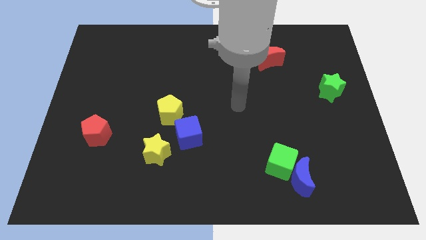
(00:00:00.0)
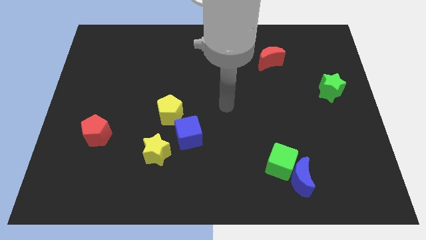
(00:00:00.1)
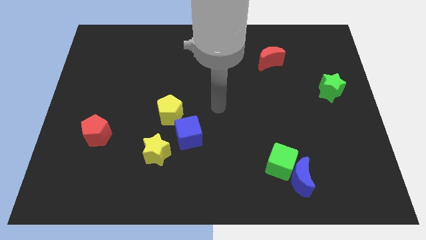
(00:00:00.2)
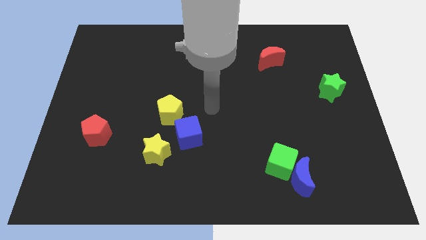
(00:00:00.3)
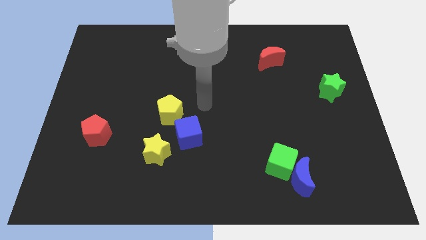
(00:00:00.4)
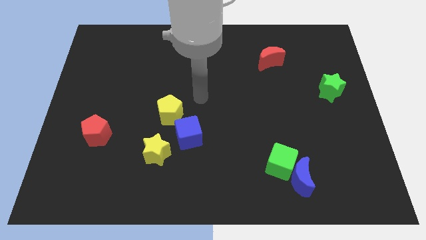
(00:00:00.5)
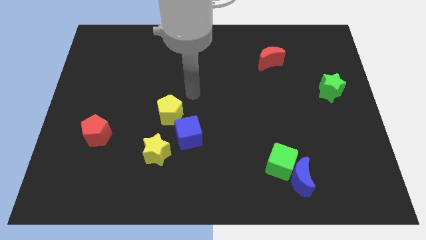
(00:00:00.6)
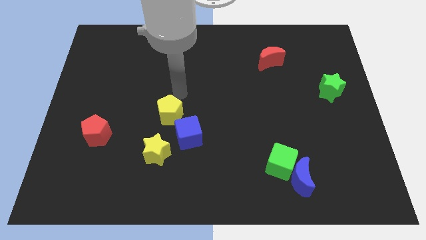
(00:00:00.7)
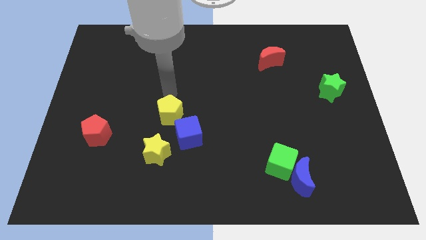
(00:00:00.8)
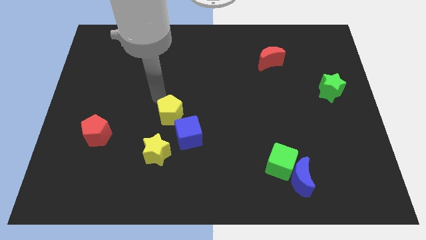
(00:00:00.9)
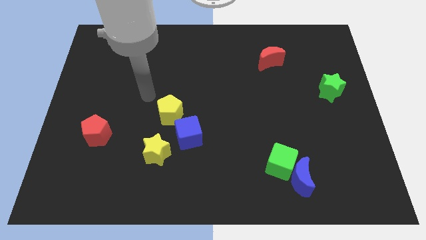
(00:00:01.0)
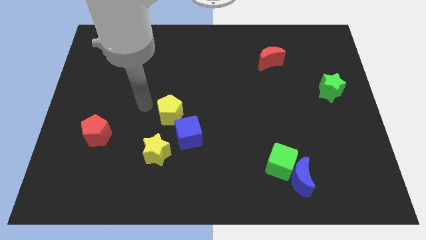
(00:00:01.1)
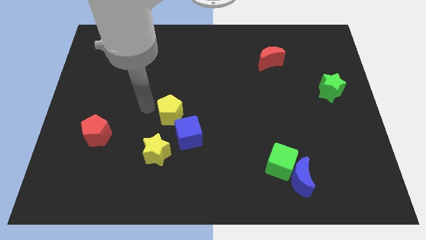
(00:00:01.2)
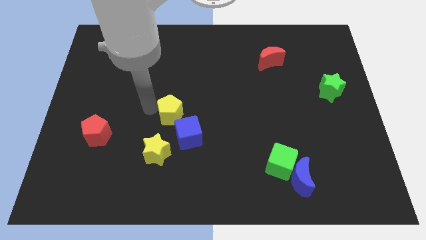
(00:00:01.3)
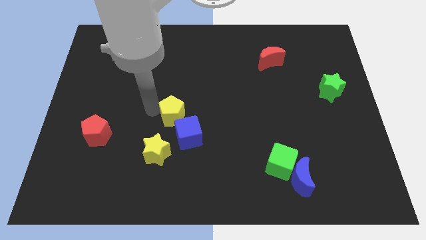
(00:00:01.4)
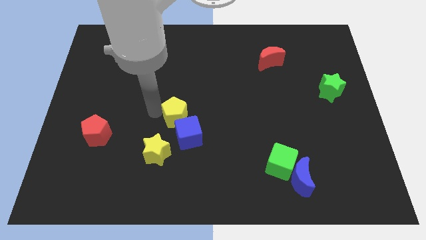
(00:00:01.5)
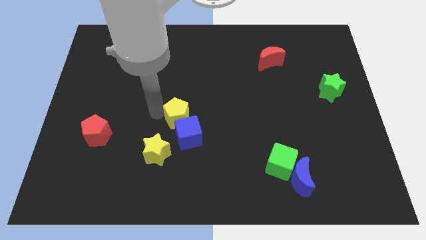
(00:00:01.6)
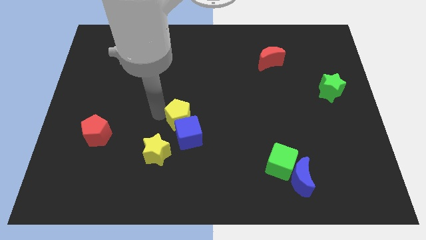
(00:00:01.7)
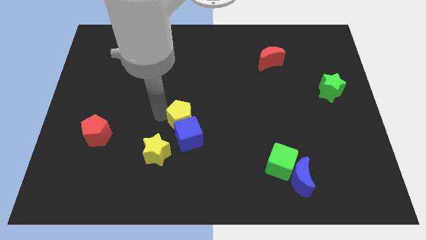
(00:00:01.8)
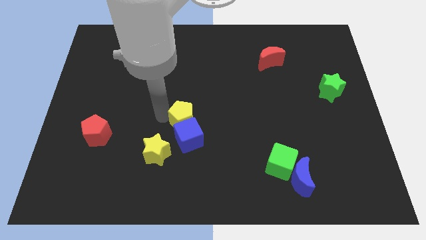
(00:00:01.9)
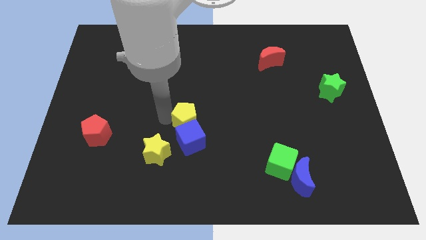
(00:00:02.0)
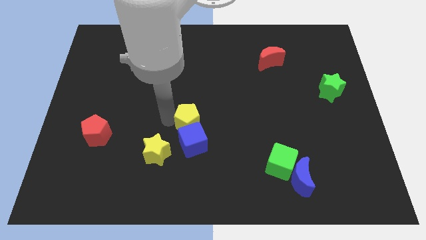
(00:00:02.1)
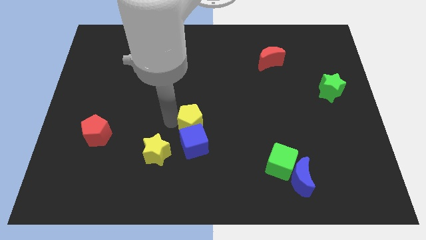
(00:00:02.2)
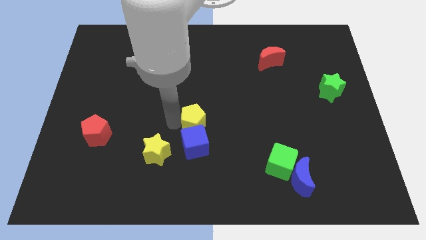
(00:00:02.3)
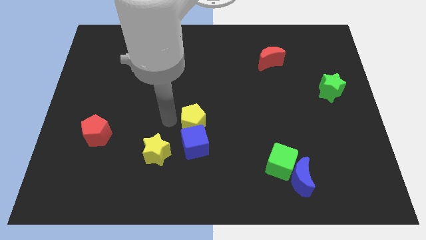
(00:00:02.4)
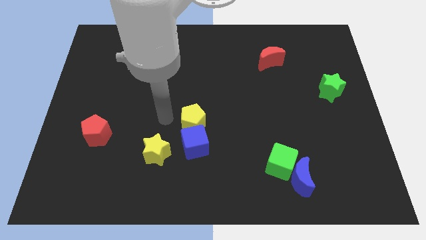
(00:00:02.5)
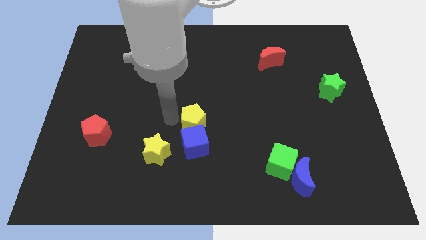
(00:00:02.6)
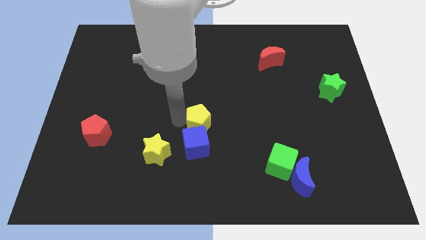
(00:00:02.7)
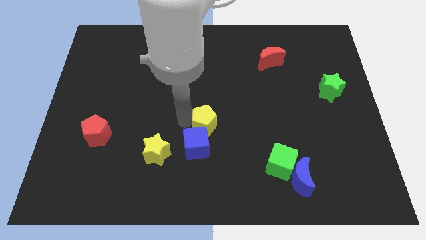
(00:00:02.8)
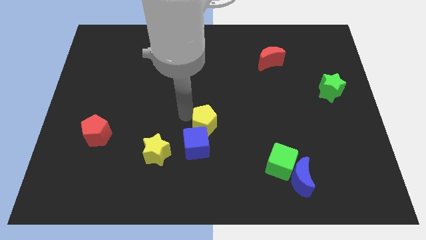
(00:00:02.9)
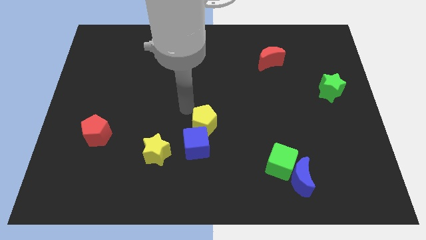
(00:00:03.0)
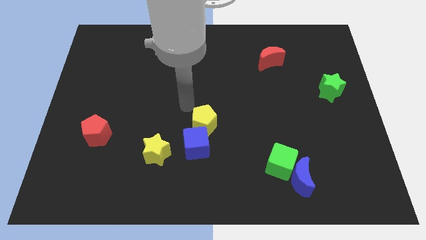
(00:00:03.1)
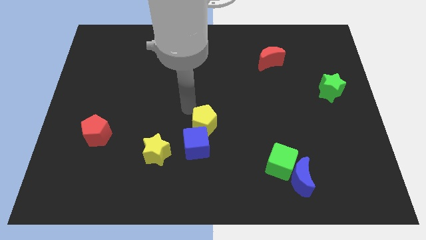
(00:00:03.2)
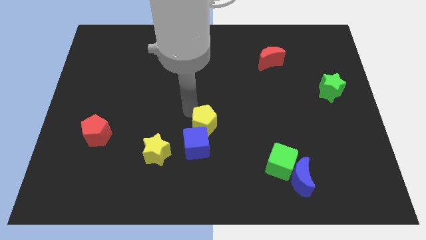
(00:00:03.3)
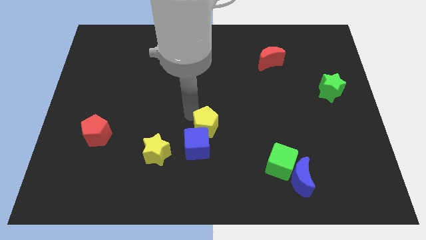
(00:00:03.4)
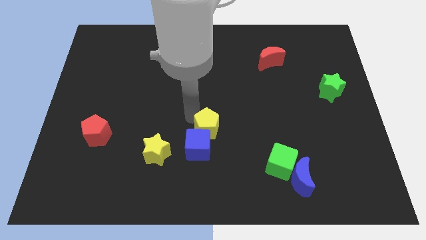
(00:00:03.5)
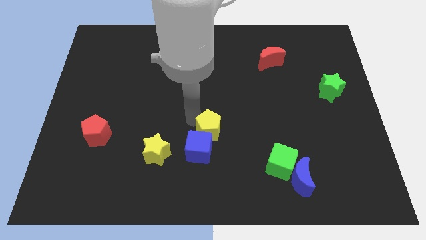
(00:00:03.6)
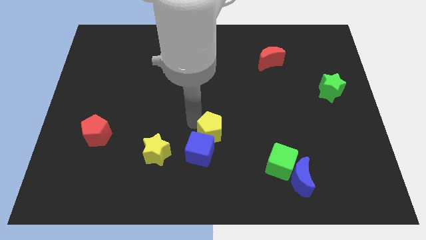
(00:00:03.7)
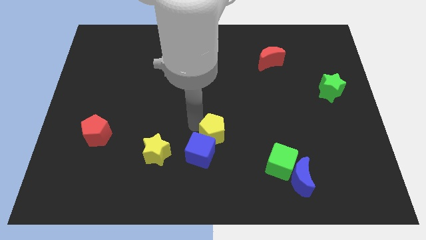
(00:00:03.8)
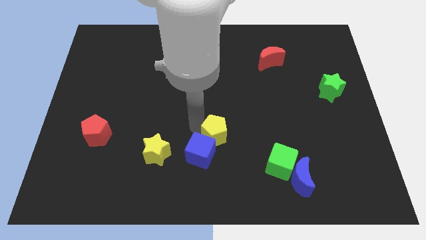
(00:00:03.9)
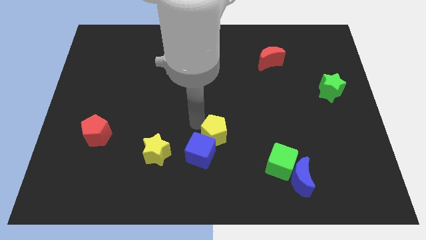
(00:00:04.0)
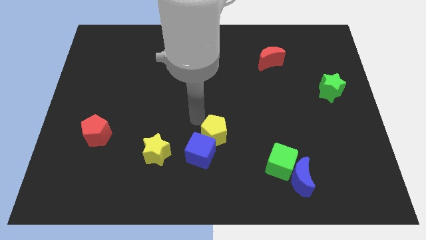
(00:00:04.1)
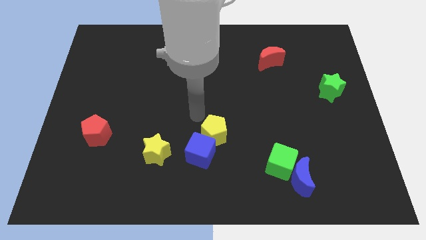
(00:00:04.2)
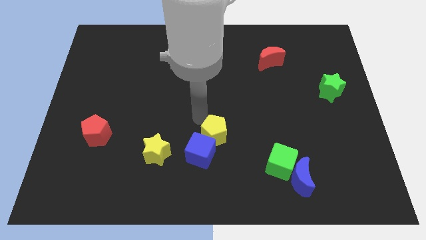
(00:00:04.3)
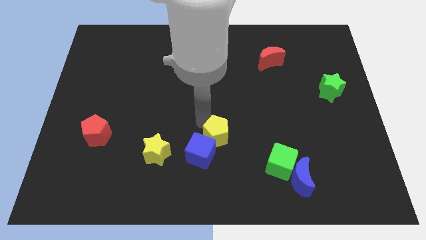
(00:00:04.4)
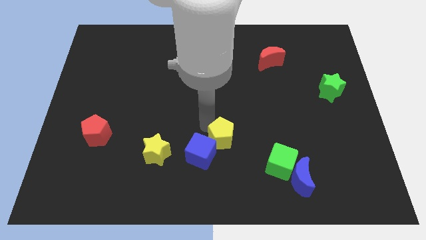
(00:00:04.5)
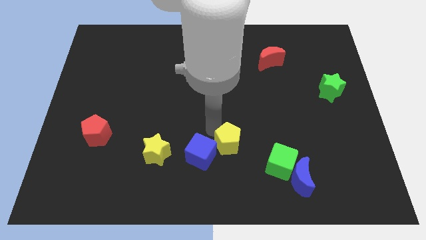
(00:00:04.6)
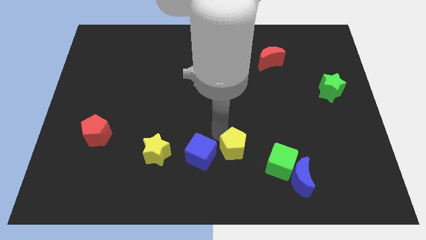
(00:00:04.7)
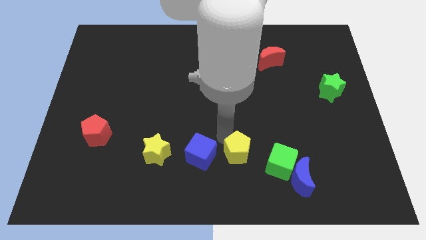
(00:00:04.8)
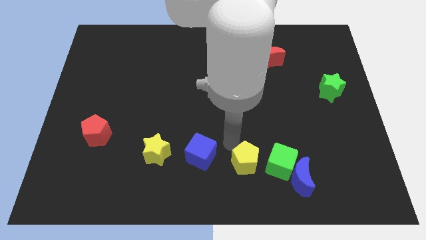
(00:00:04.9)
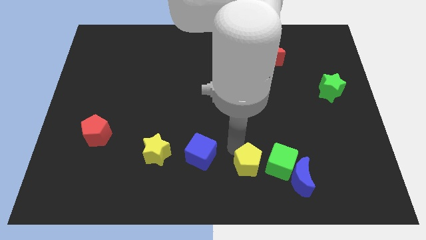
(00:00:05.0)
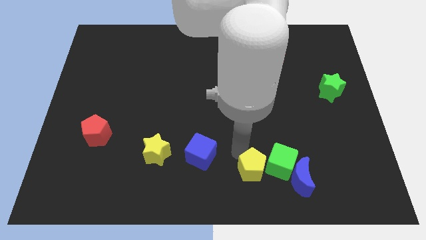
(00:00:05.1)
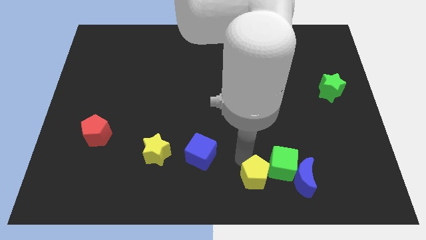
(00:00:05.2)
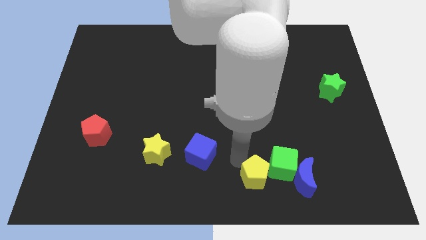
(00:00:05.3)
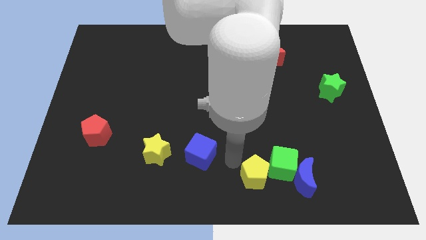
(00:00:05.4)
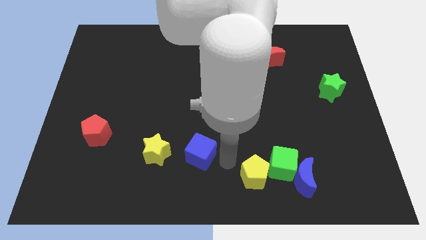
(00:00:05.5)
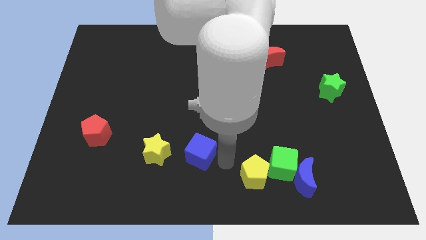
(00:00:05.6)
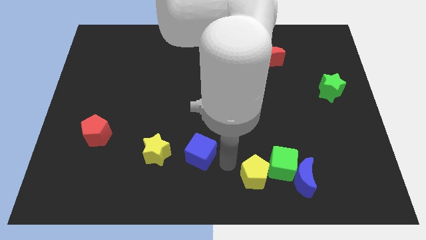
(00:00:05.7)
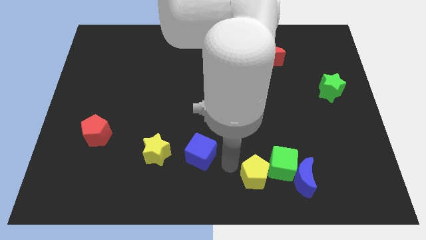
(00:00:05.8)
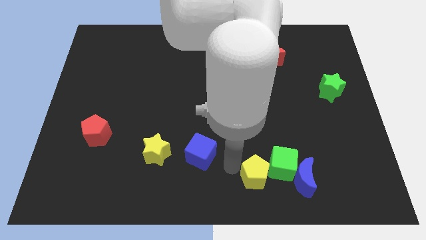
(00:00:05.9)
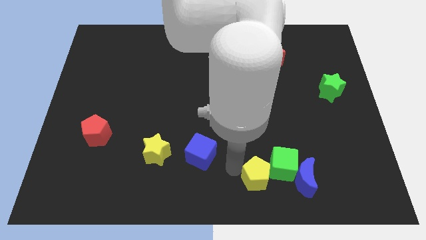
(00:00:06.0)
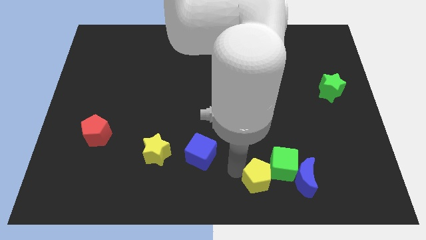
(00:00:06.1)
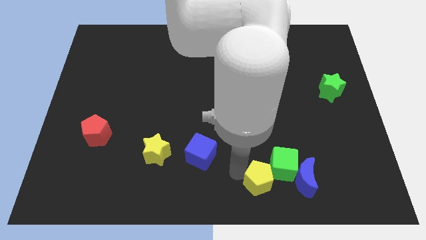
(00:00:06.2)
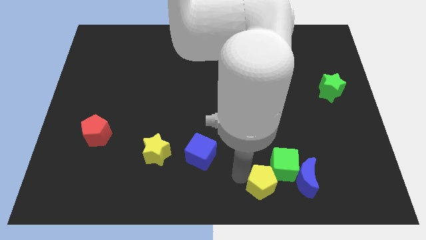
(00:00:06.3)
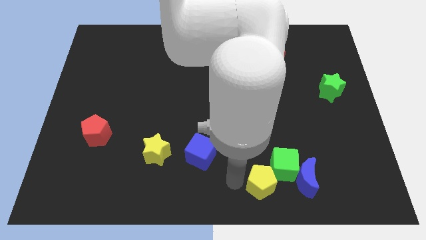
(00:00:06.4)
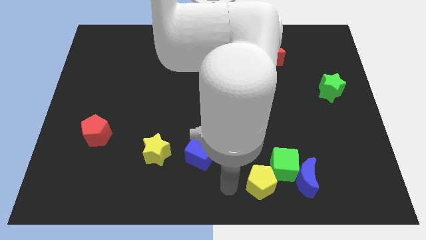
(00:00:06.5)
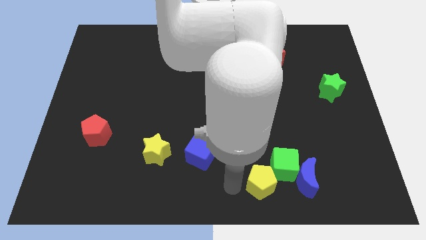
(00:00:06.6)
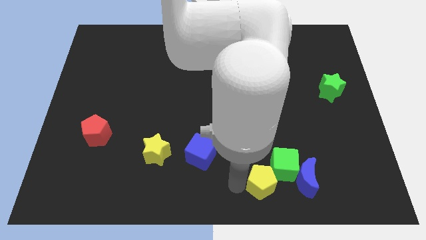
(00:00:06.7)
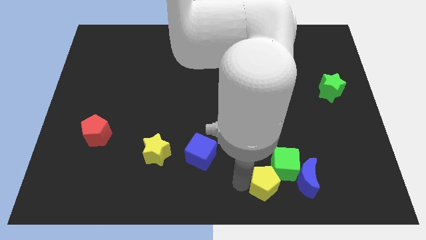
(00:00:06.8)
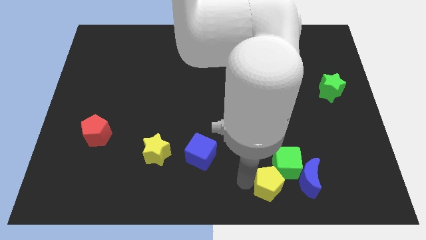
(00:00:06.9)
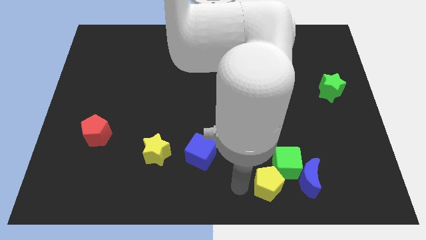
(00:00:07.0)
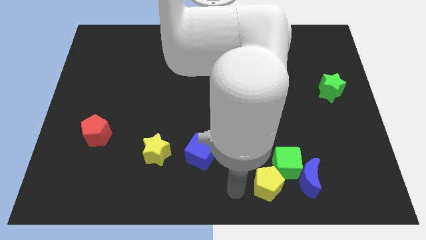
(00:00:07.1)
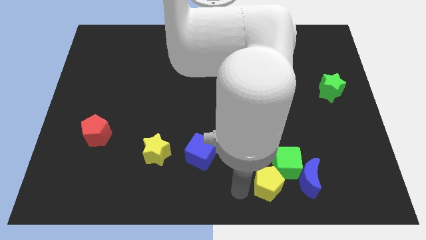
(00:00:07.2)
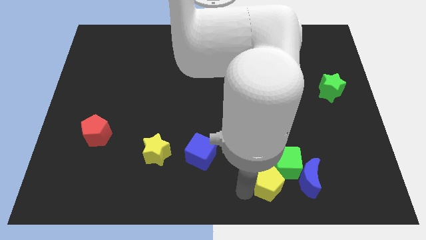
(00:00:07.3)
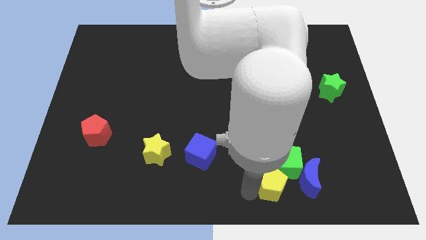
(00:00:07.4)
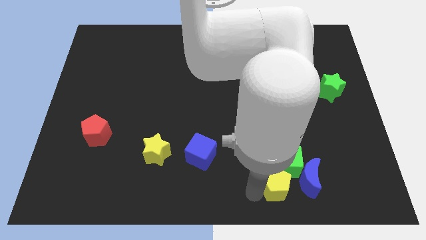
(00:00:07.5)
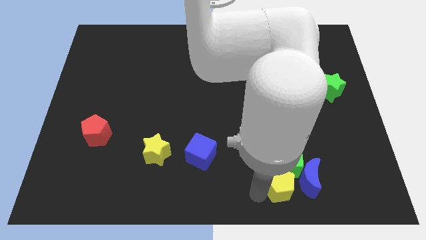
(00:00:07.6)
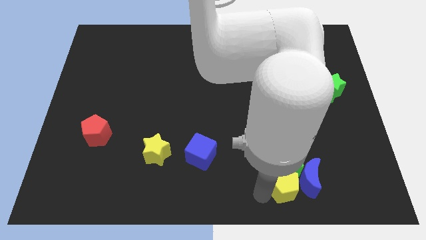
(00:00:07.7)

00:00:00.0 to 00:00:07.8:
move the yellow pentagon next to the blue moon
